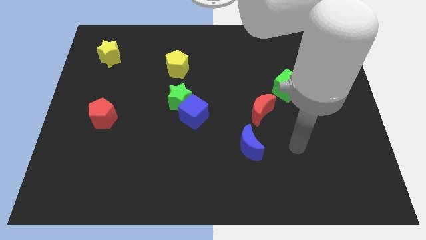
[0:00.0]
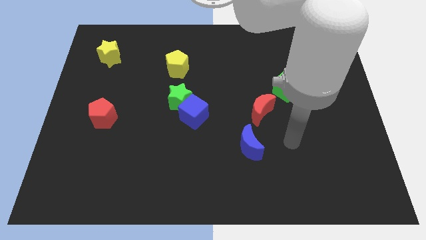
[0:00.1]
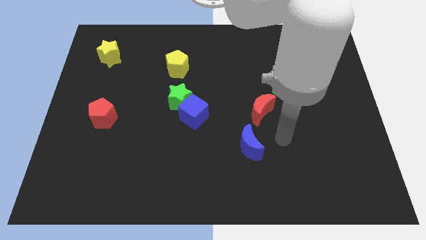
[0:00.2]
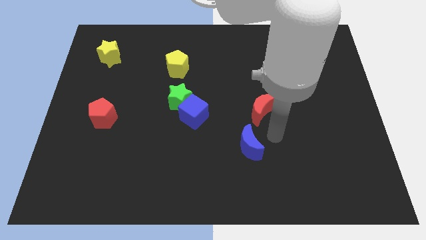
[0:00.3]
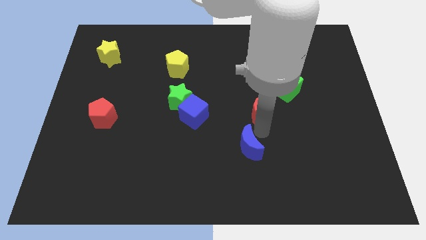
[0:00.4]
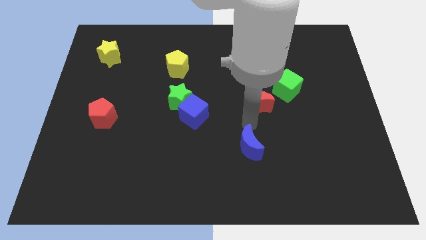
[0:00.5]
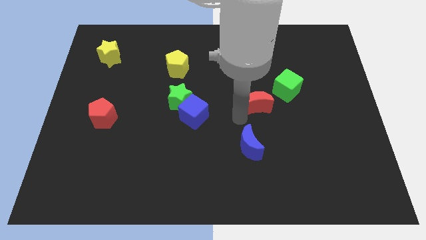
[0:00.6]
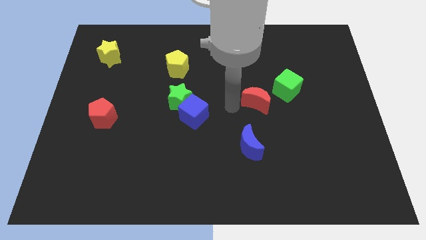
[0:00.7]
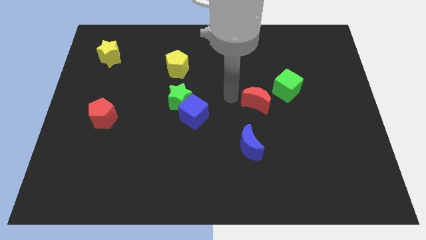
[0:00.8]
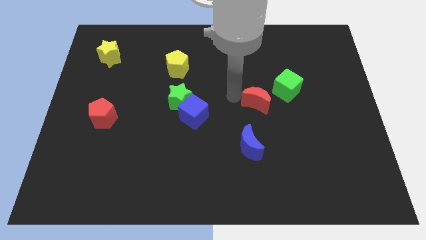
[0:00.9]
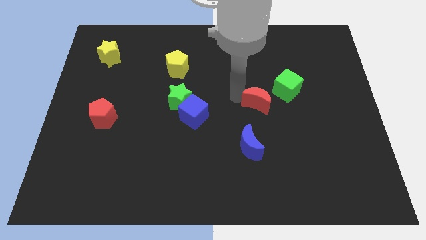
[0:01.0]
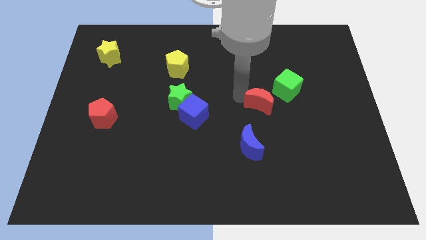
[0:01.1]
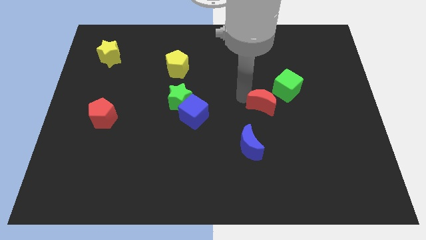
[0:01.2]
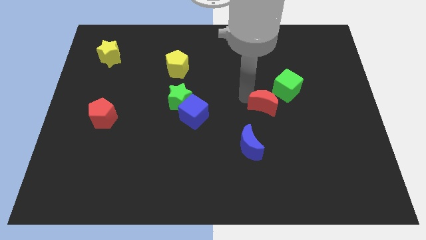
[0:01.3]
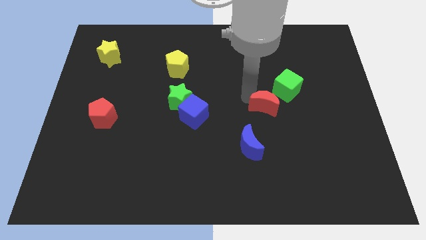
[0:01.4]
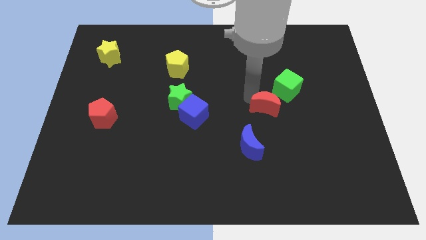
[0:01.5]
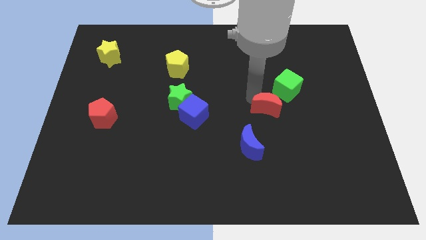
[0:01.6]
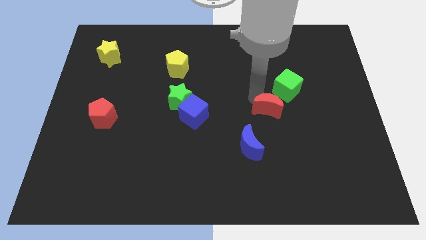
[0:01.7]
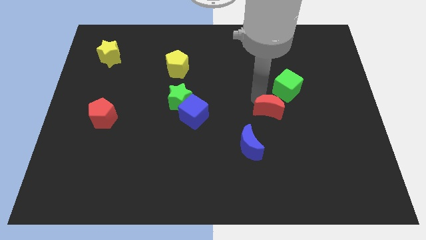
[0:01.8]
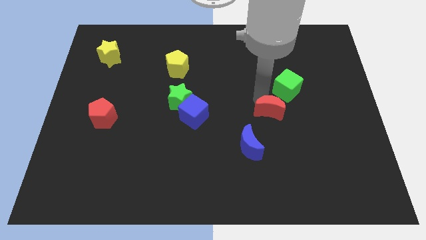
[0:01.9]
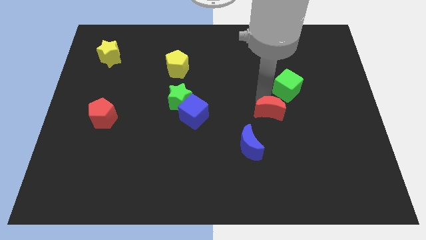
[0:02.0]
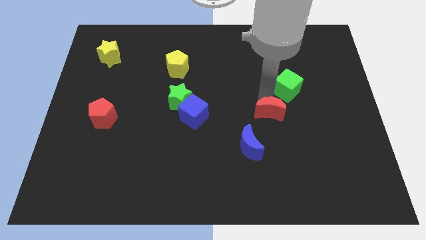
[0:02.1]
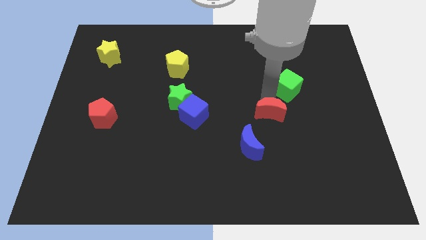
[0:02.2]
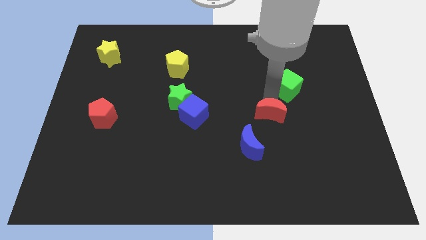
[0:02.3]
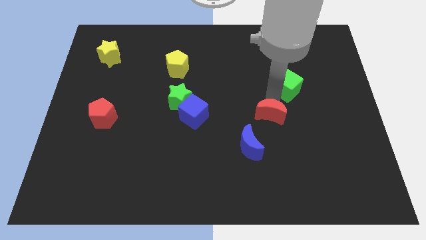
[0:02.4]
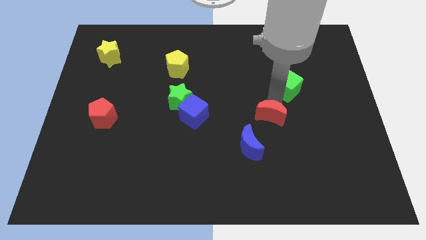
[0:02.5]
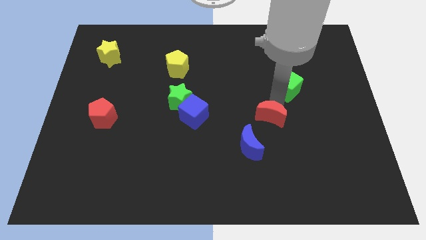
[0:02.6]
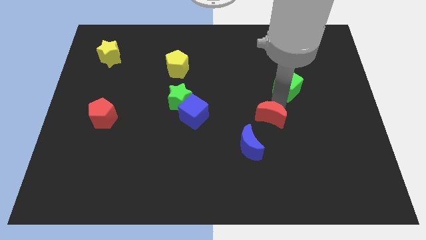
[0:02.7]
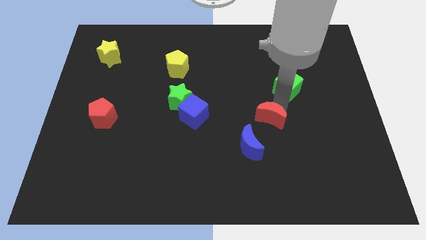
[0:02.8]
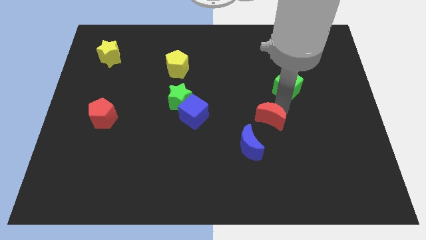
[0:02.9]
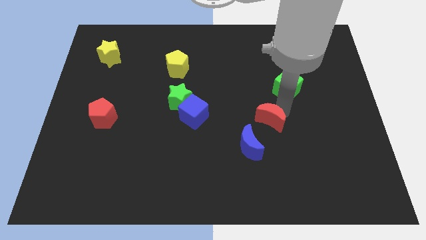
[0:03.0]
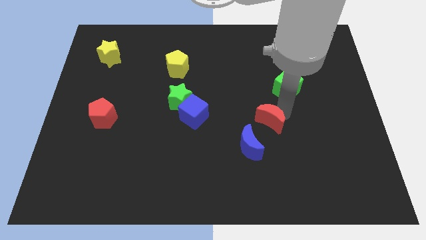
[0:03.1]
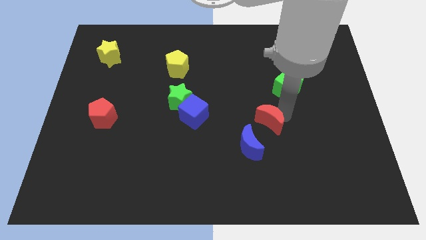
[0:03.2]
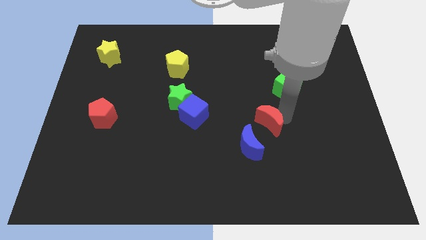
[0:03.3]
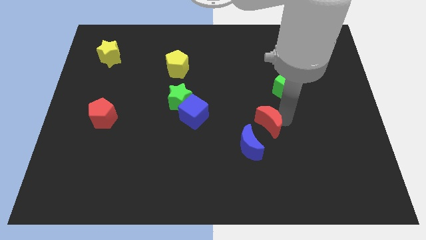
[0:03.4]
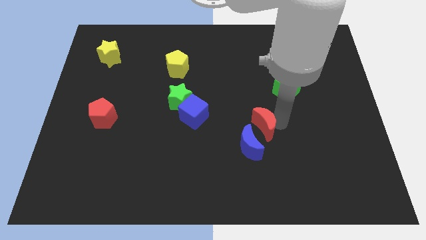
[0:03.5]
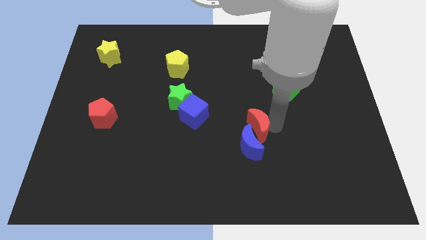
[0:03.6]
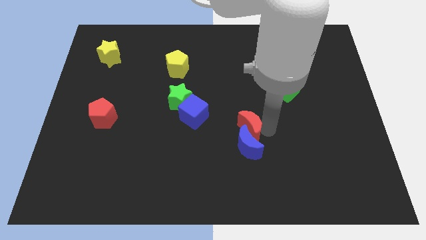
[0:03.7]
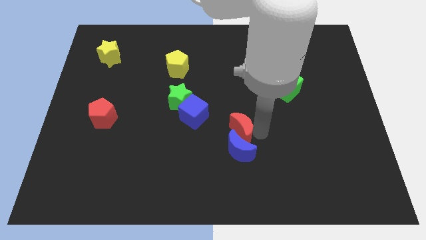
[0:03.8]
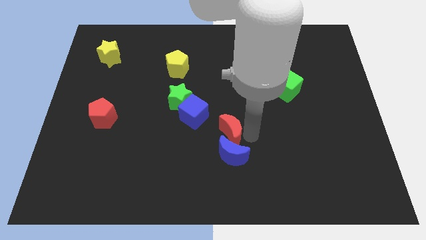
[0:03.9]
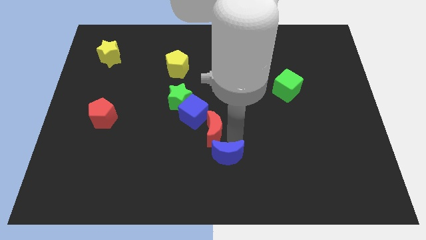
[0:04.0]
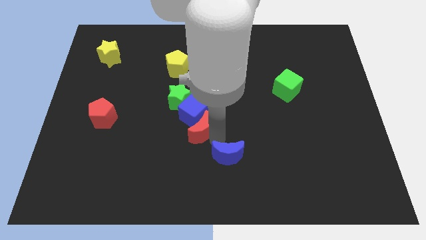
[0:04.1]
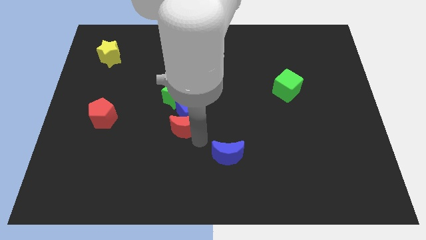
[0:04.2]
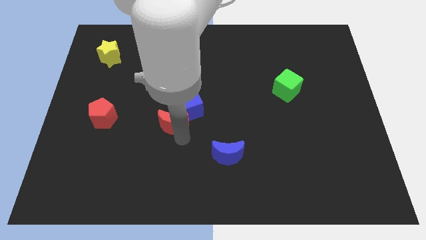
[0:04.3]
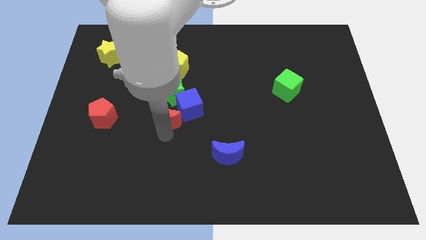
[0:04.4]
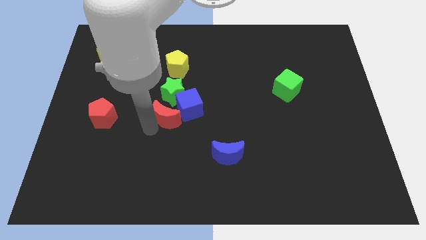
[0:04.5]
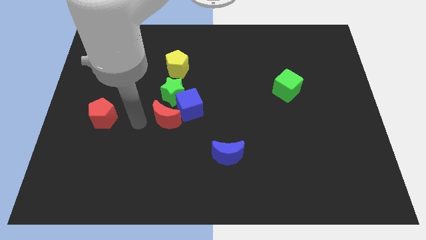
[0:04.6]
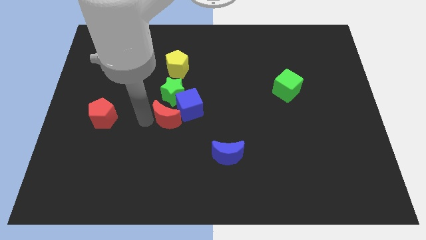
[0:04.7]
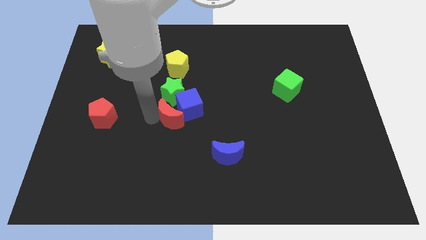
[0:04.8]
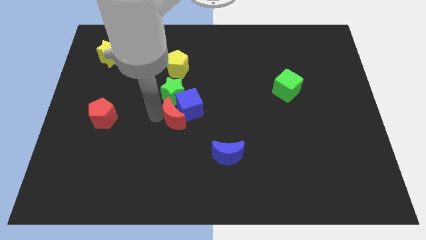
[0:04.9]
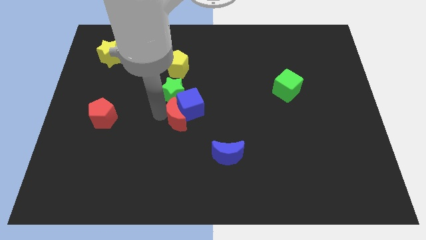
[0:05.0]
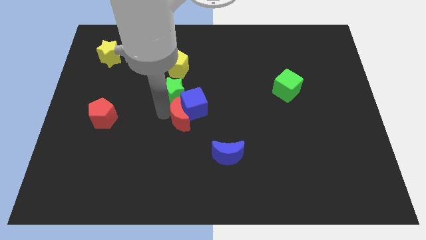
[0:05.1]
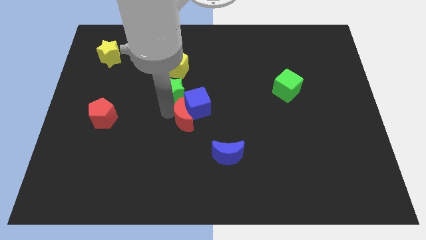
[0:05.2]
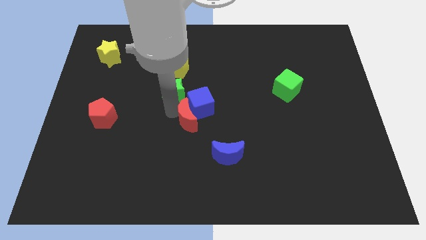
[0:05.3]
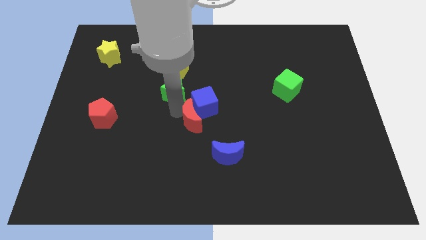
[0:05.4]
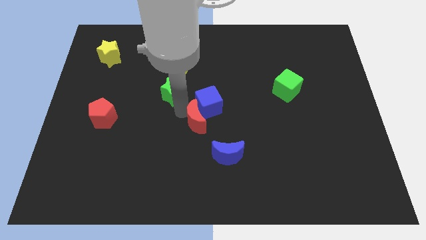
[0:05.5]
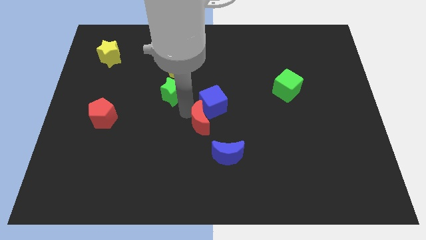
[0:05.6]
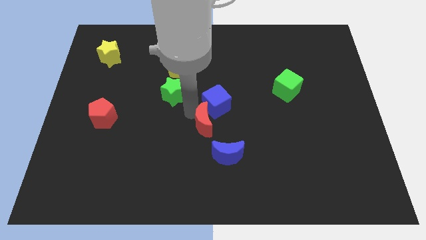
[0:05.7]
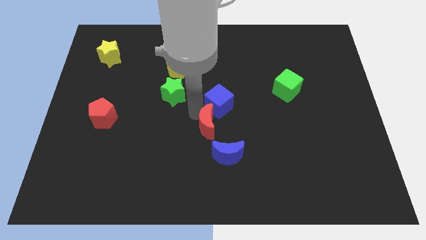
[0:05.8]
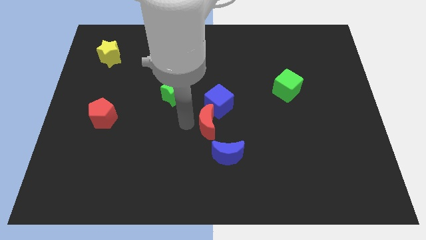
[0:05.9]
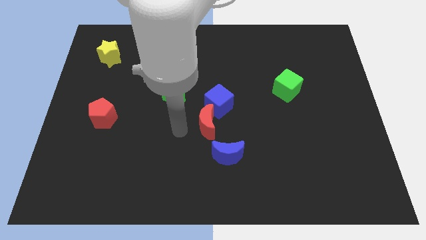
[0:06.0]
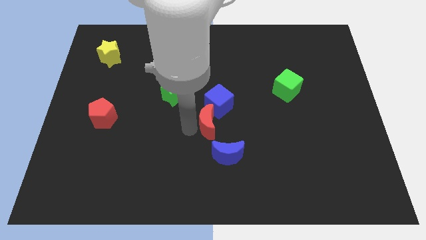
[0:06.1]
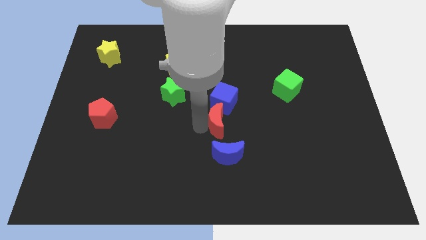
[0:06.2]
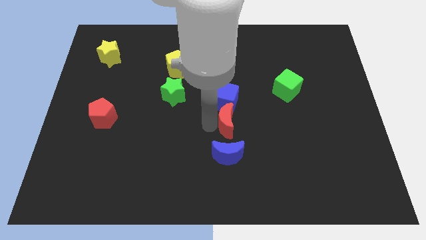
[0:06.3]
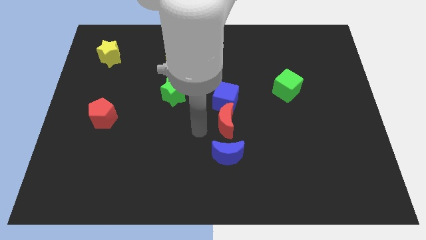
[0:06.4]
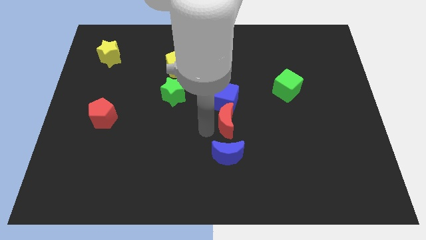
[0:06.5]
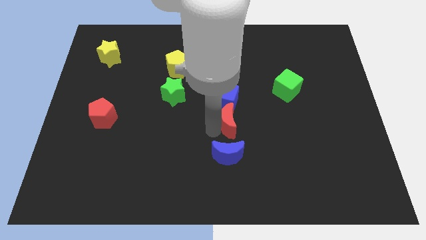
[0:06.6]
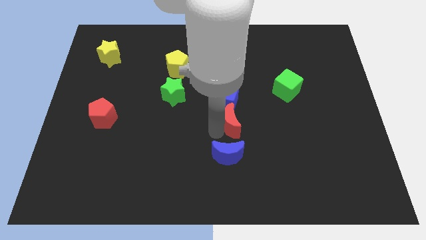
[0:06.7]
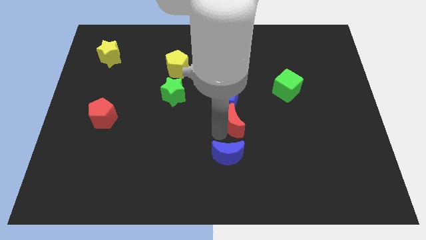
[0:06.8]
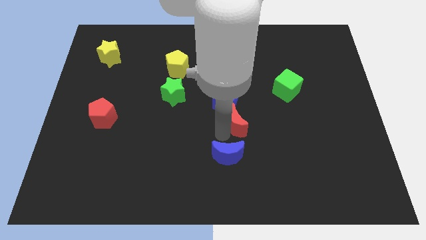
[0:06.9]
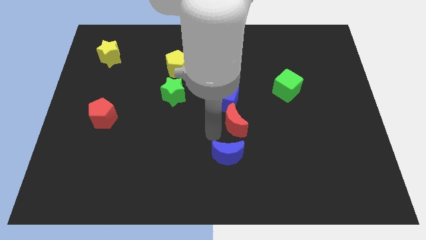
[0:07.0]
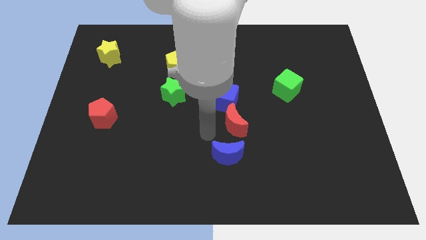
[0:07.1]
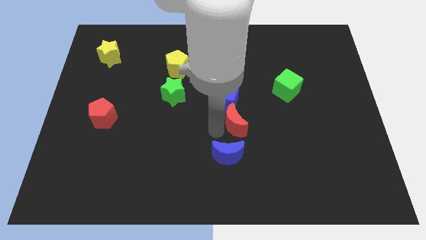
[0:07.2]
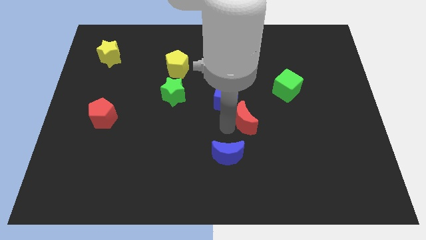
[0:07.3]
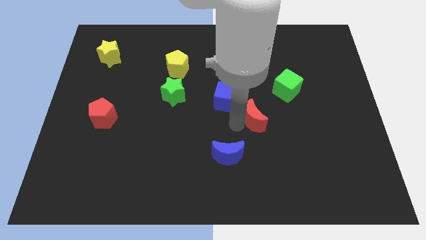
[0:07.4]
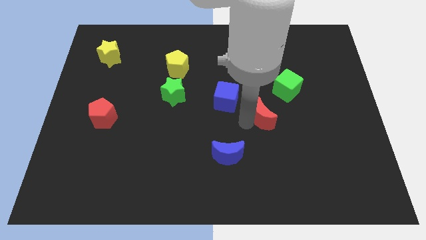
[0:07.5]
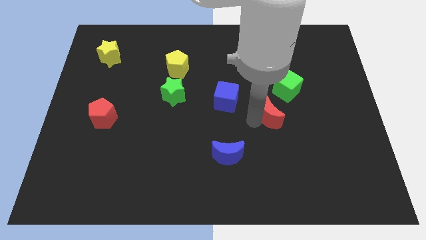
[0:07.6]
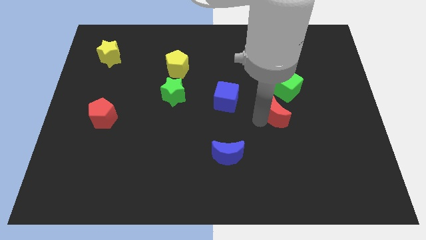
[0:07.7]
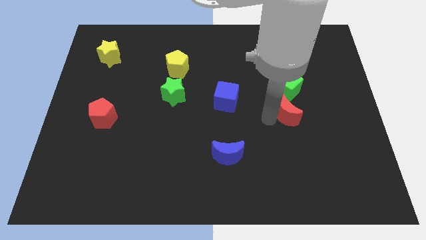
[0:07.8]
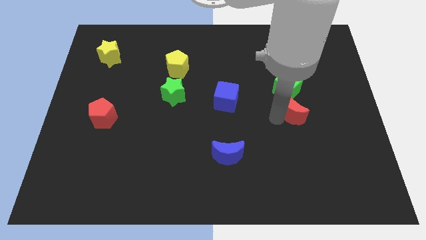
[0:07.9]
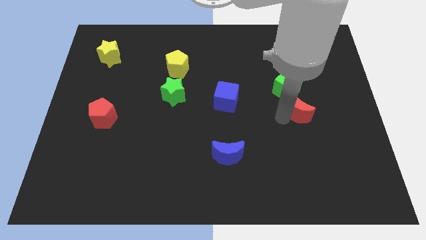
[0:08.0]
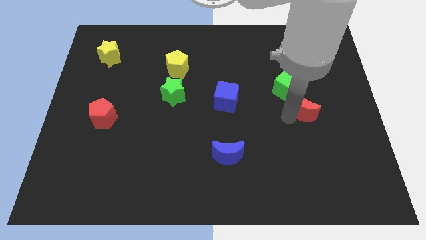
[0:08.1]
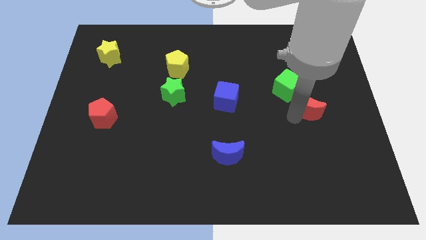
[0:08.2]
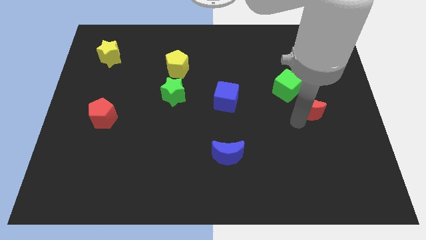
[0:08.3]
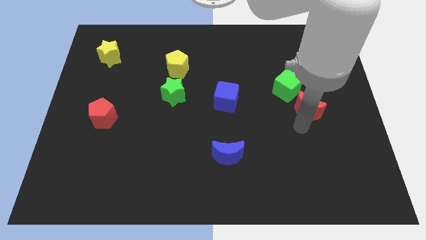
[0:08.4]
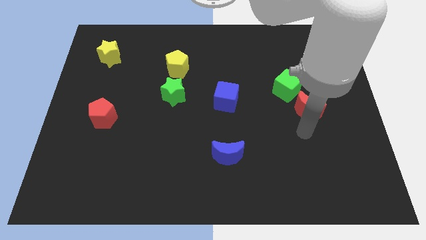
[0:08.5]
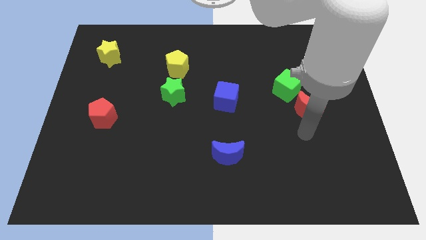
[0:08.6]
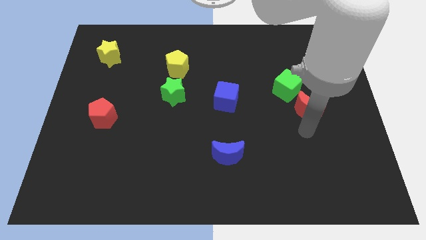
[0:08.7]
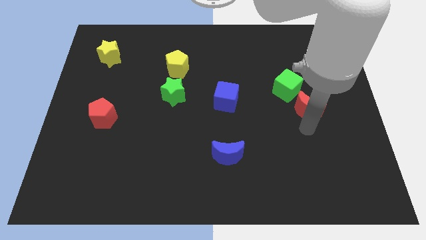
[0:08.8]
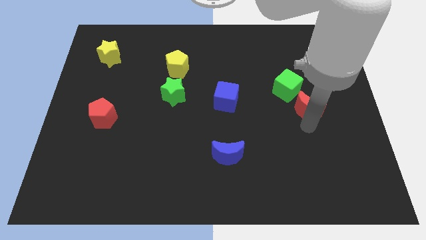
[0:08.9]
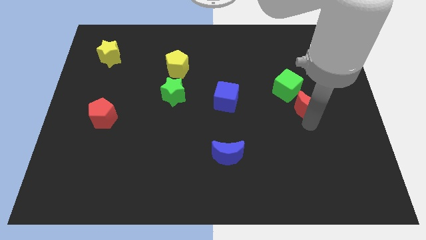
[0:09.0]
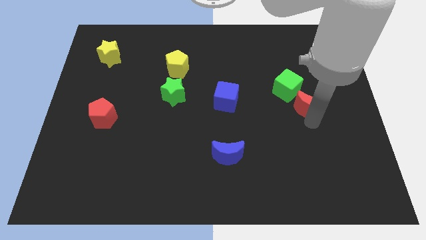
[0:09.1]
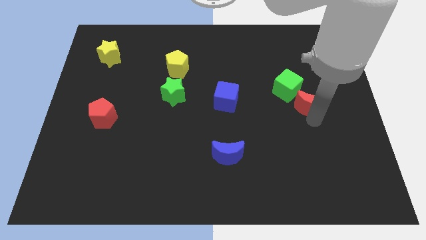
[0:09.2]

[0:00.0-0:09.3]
slide the red moon up and to the right diagonally somewhat
